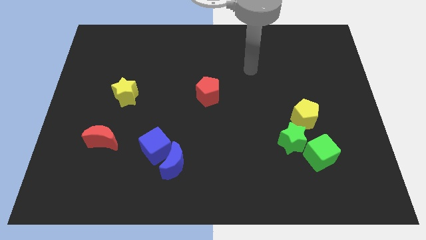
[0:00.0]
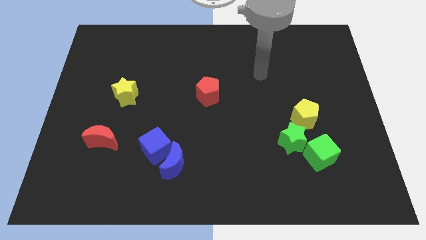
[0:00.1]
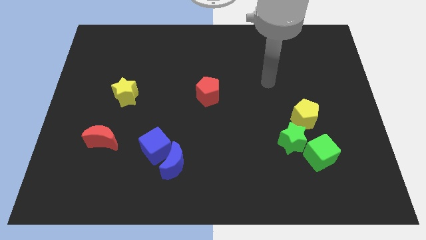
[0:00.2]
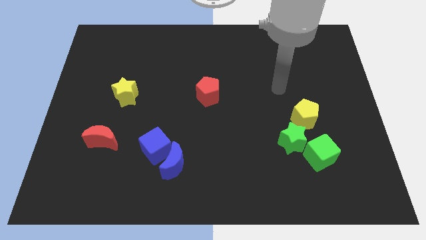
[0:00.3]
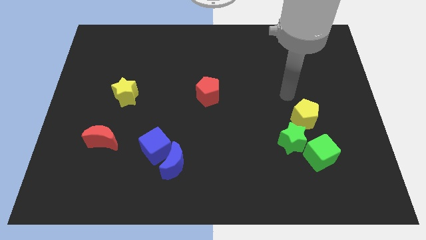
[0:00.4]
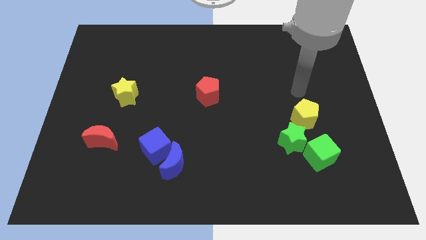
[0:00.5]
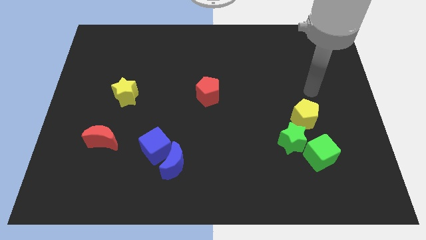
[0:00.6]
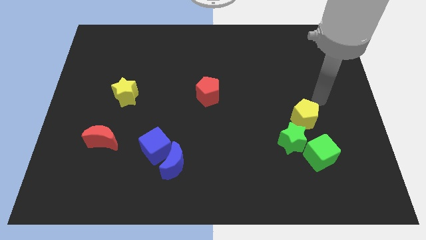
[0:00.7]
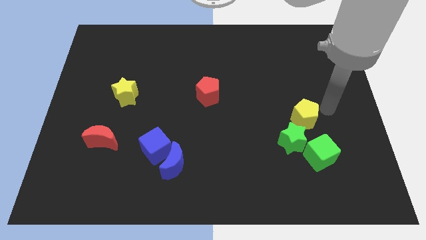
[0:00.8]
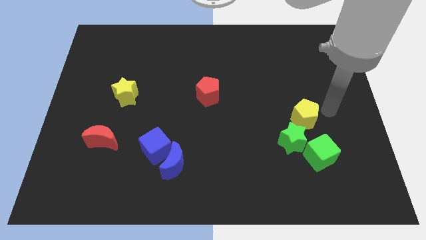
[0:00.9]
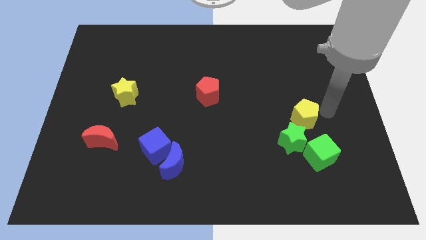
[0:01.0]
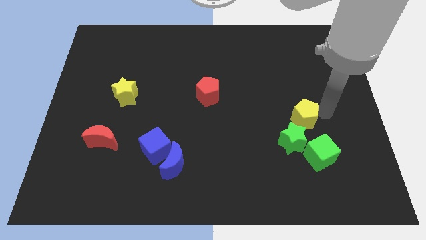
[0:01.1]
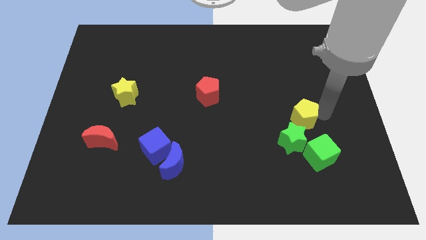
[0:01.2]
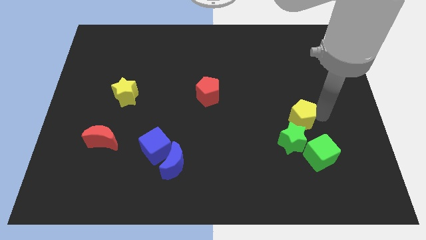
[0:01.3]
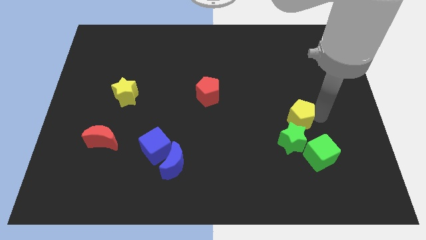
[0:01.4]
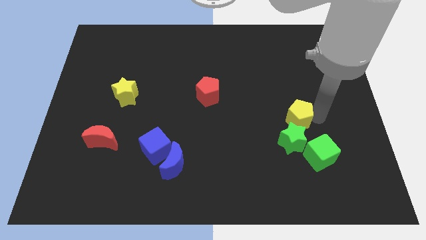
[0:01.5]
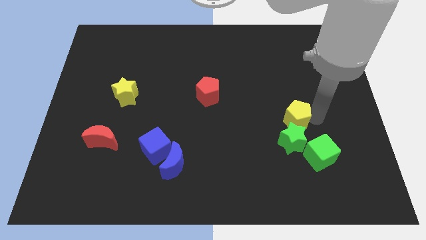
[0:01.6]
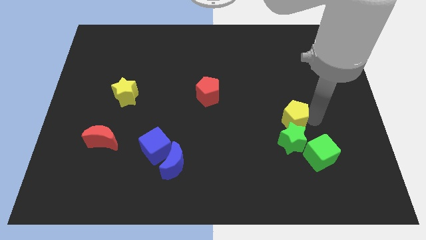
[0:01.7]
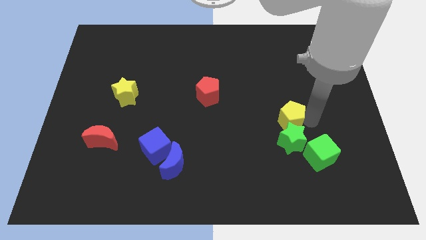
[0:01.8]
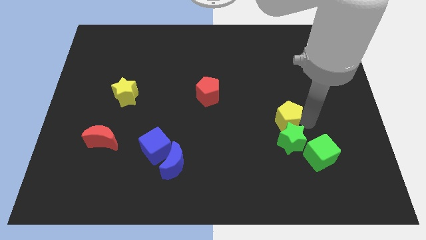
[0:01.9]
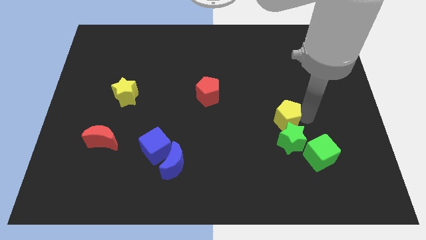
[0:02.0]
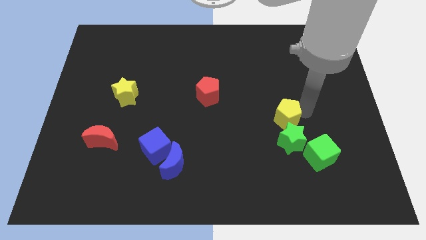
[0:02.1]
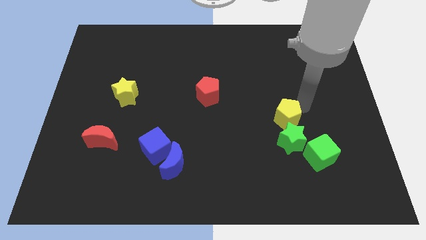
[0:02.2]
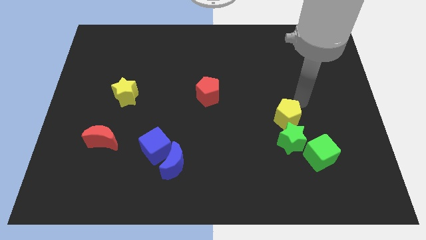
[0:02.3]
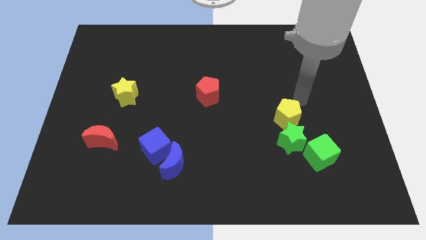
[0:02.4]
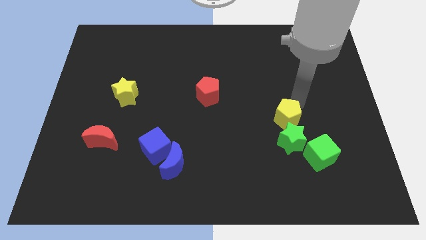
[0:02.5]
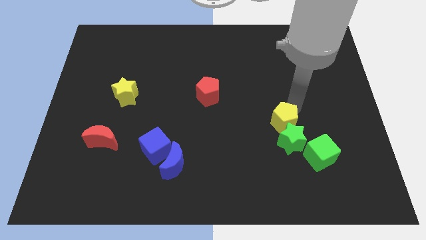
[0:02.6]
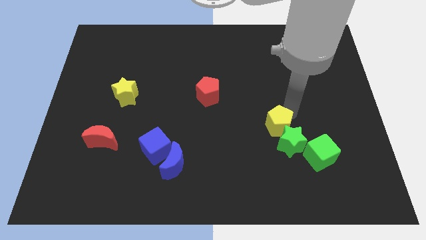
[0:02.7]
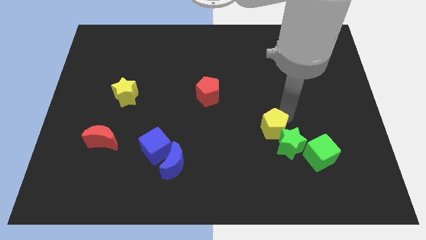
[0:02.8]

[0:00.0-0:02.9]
move the yellow pentagon somewhat diagonally downwards and to the left

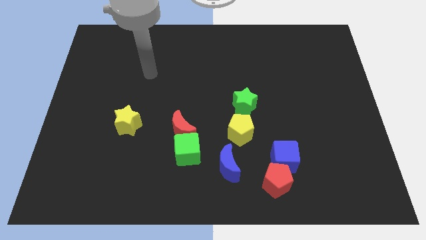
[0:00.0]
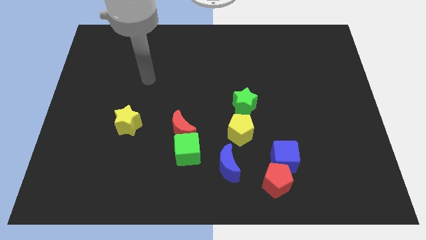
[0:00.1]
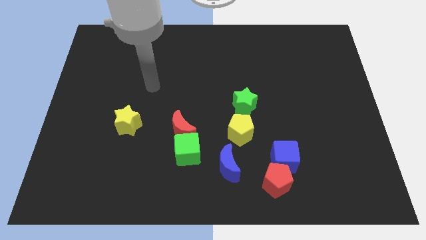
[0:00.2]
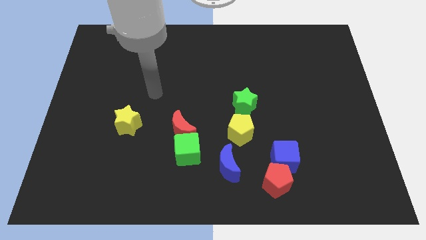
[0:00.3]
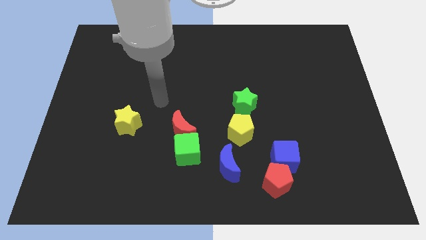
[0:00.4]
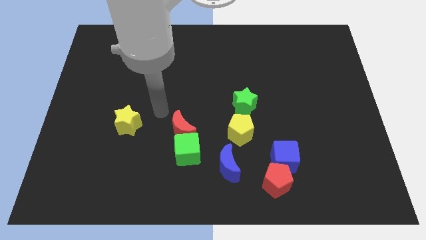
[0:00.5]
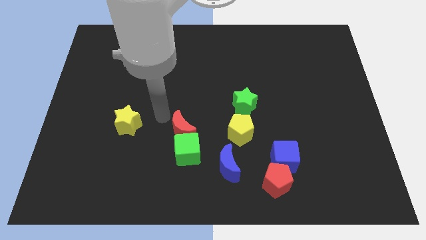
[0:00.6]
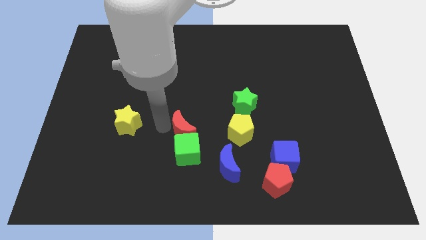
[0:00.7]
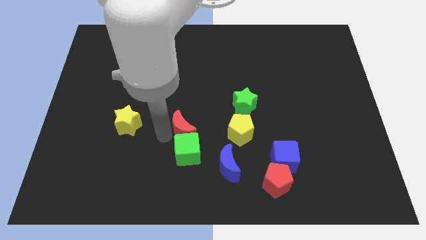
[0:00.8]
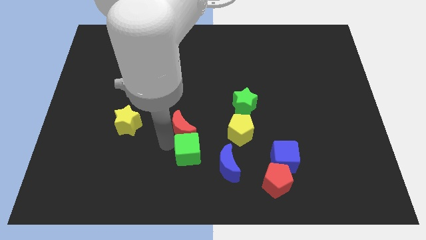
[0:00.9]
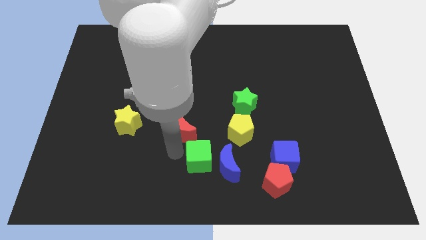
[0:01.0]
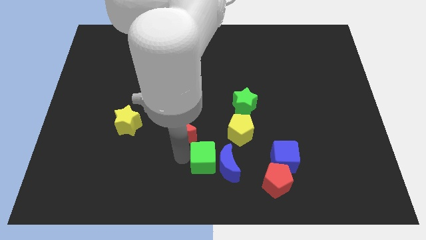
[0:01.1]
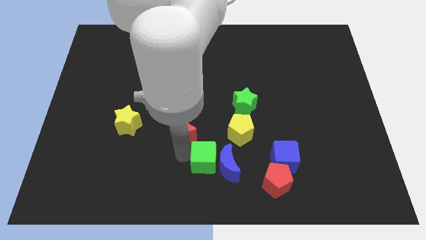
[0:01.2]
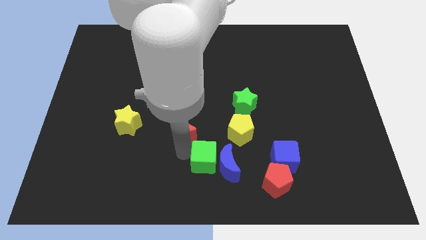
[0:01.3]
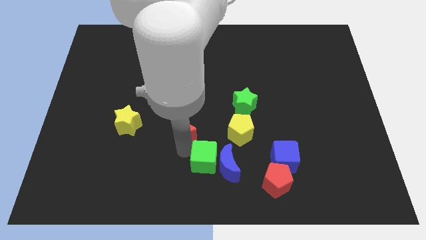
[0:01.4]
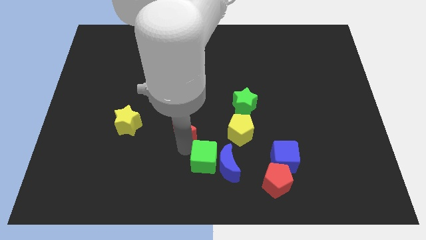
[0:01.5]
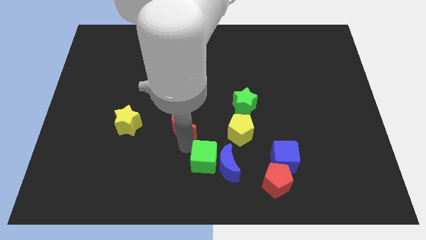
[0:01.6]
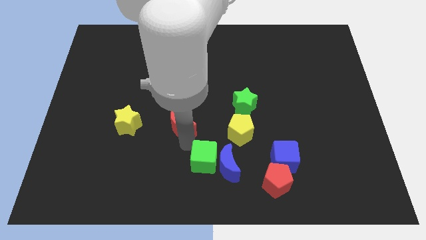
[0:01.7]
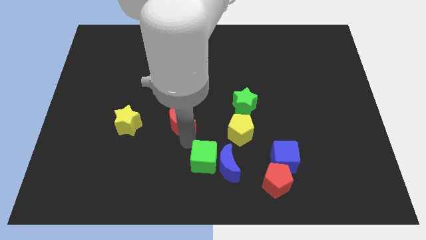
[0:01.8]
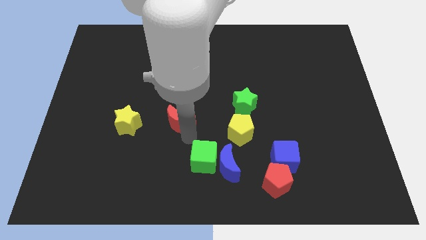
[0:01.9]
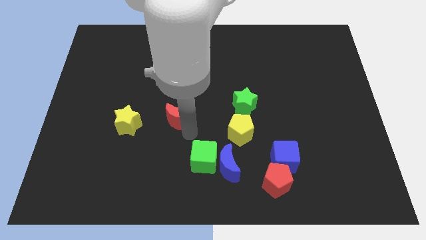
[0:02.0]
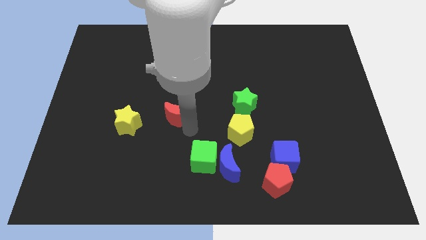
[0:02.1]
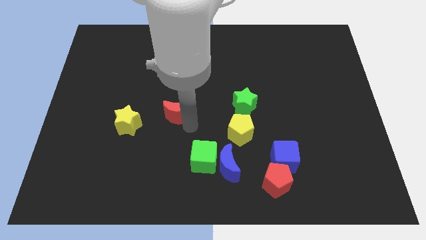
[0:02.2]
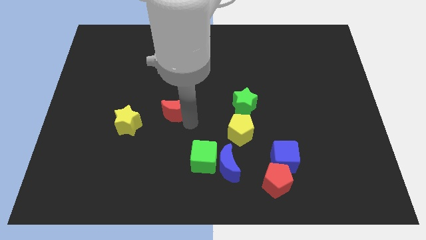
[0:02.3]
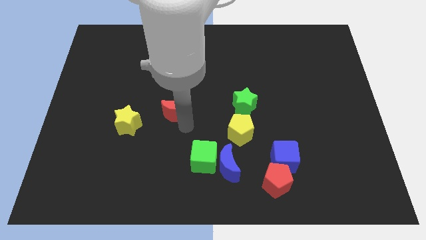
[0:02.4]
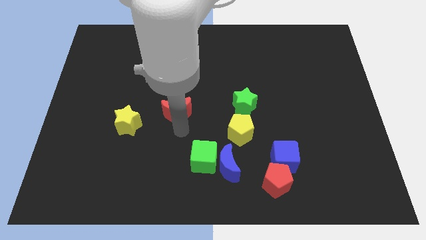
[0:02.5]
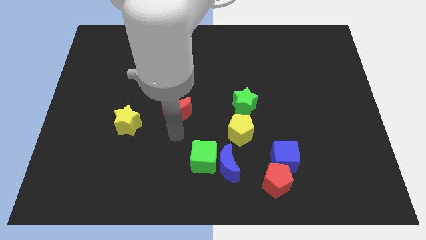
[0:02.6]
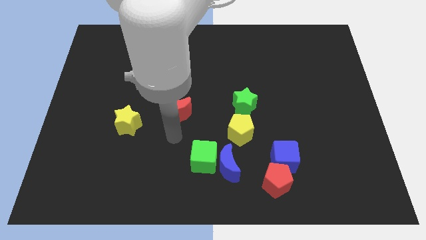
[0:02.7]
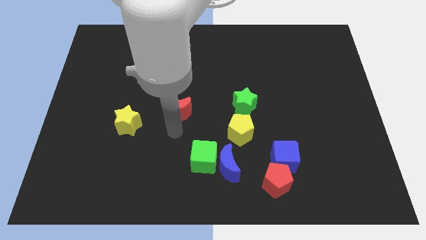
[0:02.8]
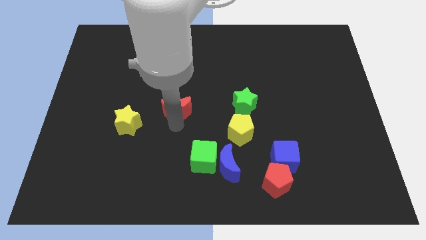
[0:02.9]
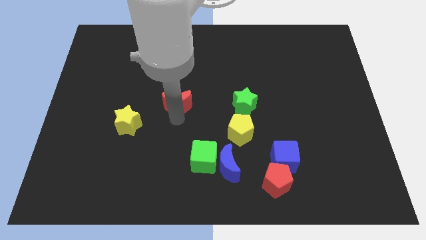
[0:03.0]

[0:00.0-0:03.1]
push the red moon upwards a bit

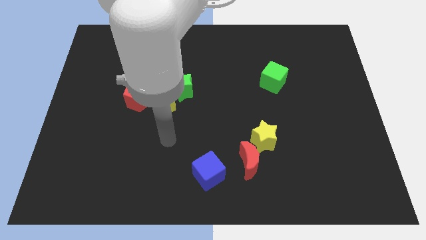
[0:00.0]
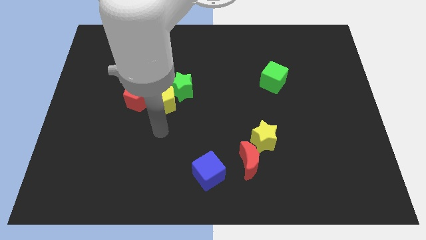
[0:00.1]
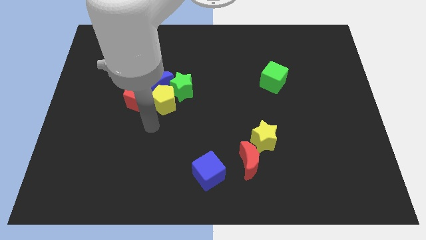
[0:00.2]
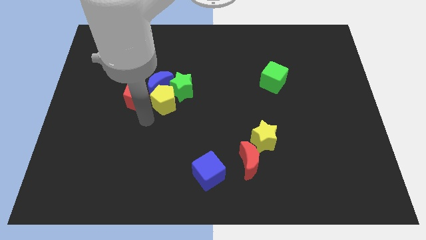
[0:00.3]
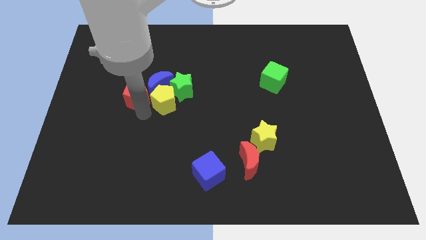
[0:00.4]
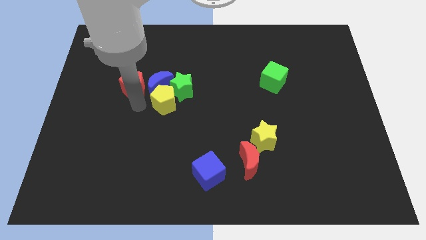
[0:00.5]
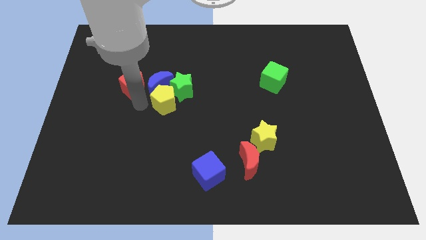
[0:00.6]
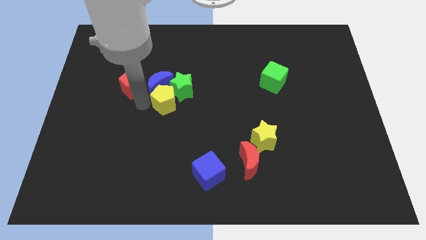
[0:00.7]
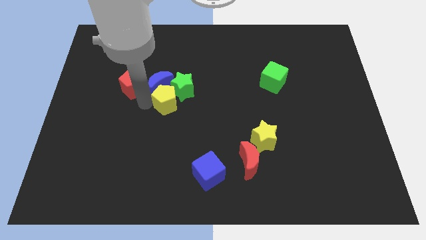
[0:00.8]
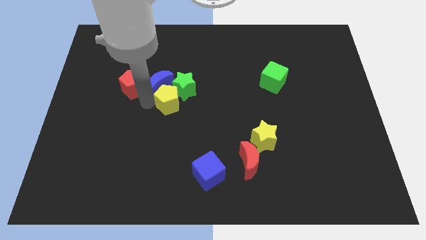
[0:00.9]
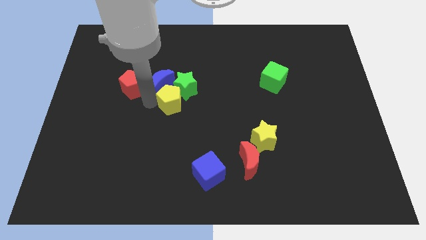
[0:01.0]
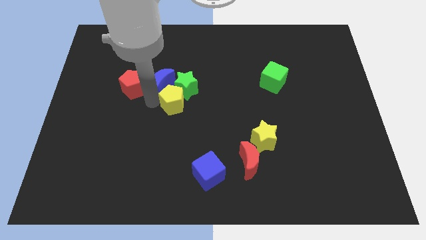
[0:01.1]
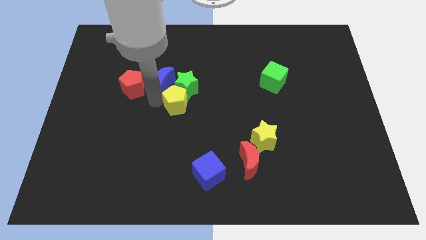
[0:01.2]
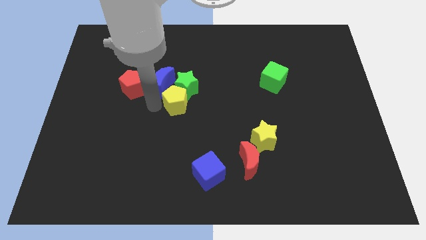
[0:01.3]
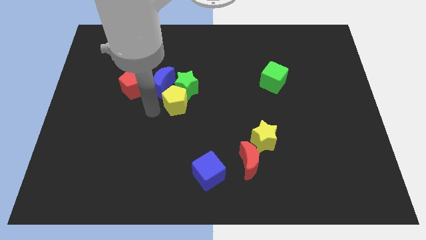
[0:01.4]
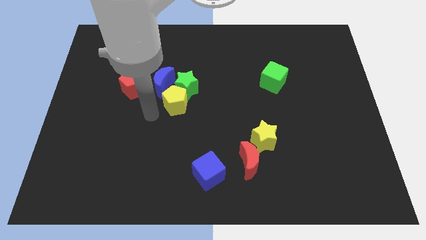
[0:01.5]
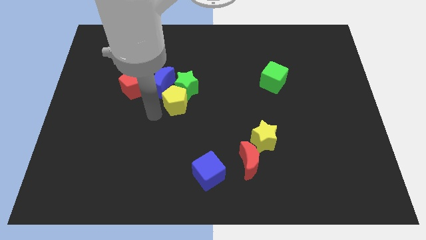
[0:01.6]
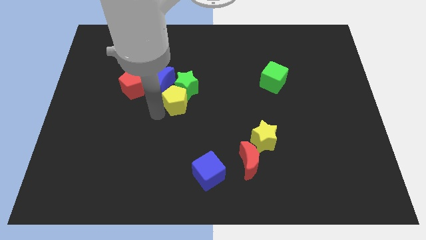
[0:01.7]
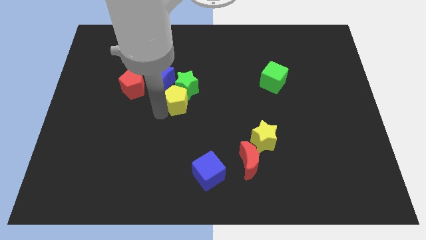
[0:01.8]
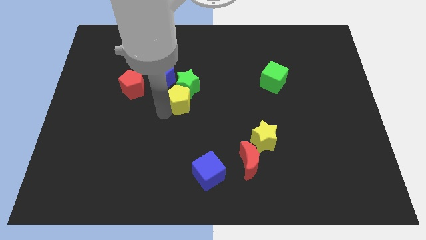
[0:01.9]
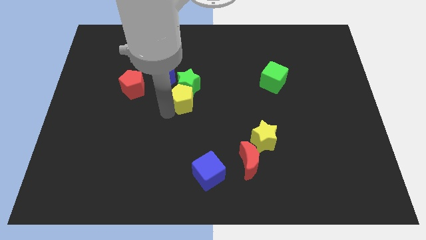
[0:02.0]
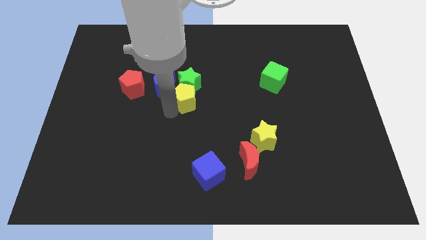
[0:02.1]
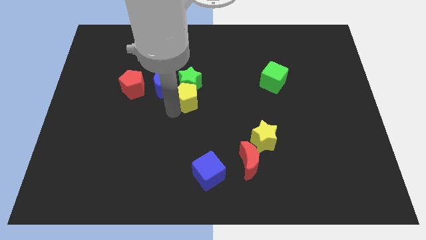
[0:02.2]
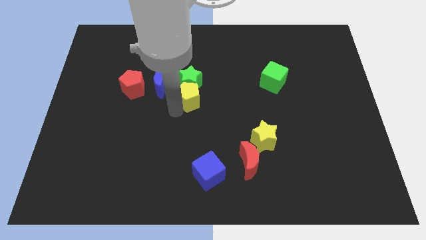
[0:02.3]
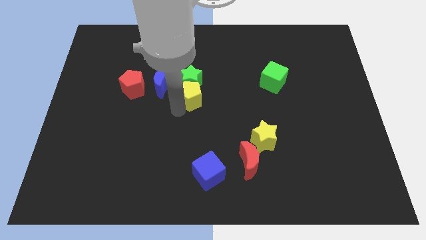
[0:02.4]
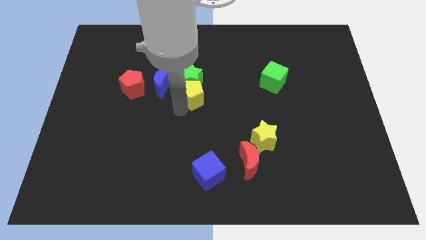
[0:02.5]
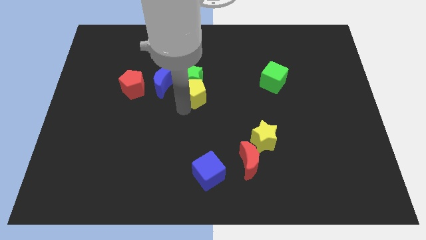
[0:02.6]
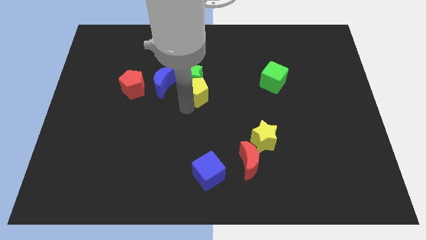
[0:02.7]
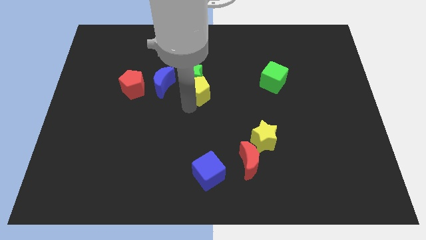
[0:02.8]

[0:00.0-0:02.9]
slightly move the yellow pentagon diagonally upwards and to the right
